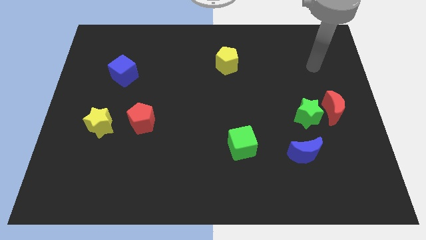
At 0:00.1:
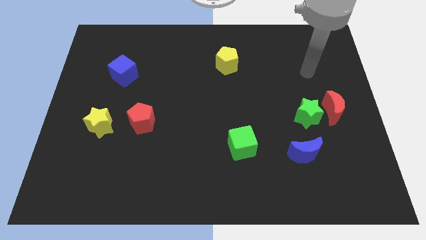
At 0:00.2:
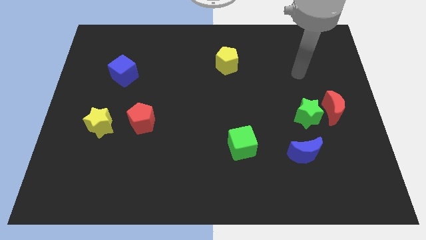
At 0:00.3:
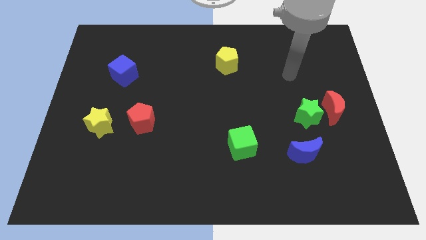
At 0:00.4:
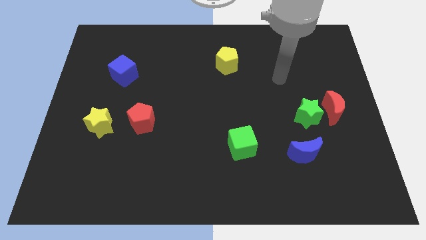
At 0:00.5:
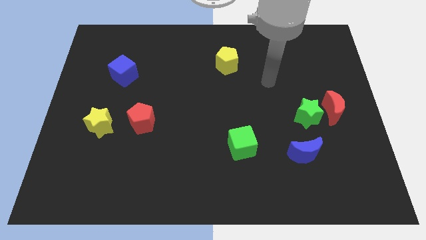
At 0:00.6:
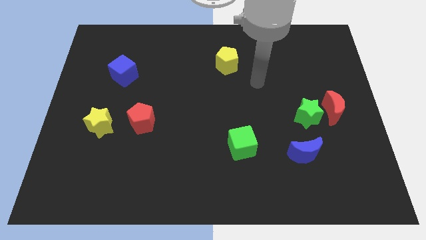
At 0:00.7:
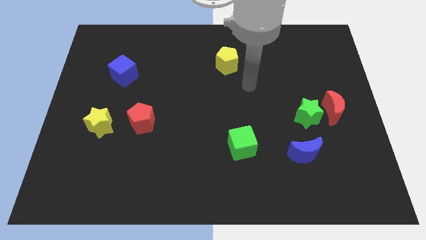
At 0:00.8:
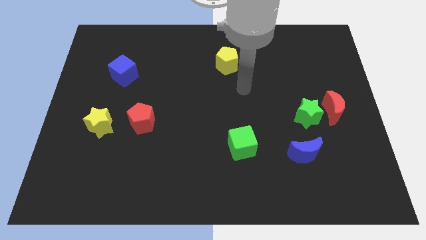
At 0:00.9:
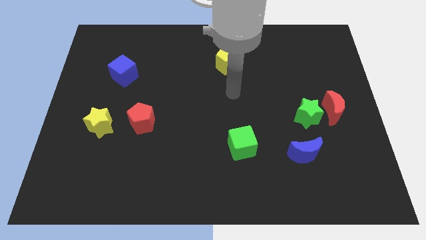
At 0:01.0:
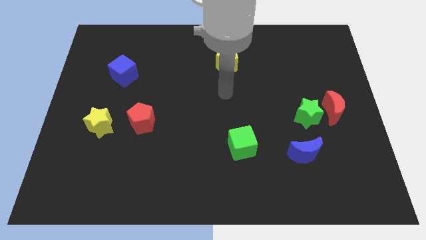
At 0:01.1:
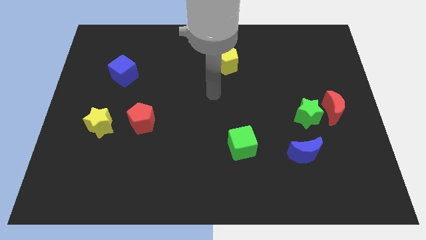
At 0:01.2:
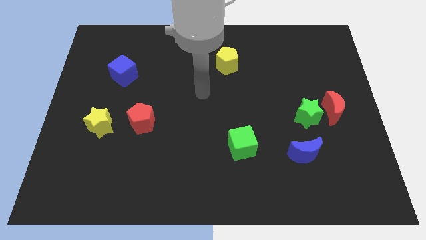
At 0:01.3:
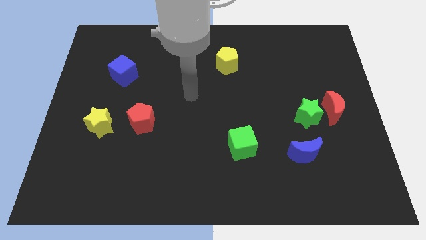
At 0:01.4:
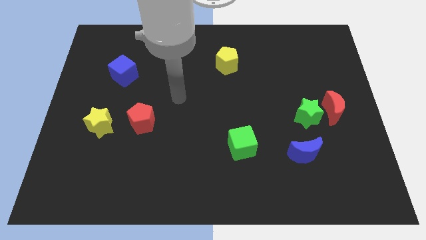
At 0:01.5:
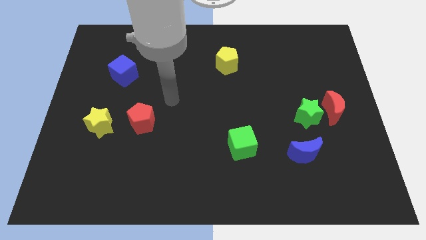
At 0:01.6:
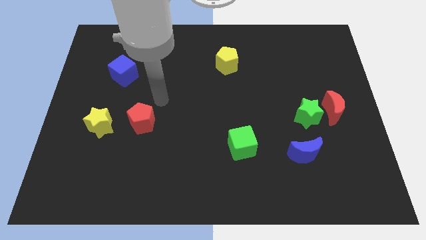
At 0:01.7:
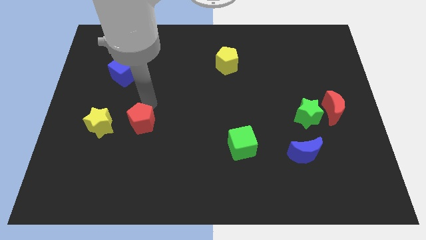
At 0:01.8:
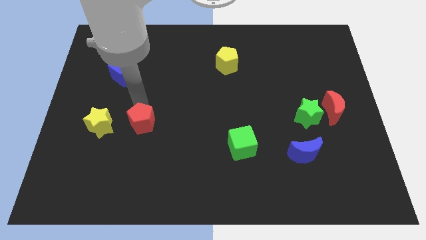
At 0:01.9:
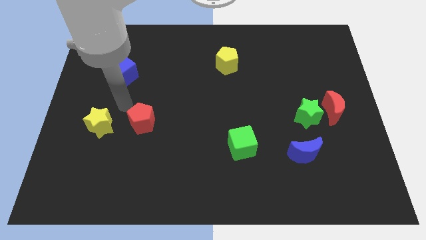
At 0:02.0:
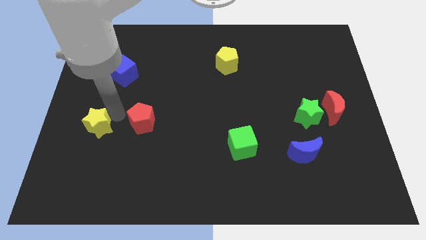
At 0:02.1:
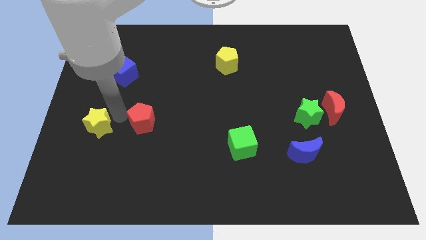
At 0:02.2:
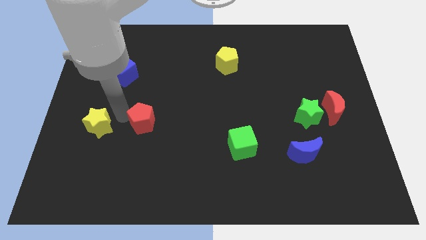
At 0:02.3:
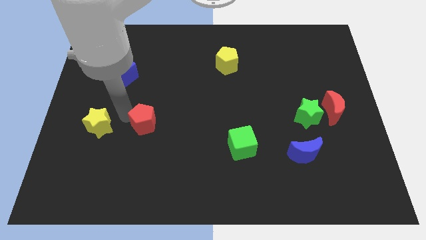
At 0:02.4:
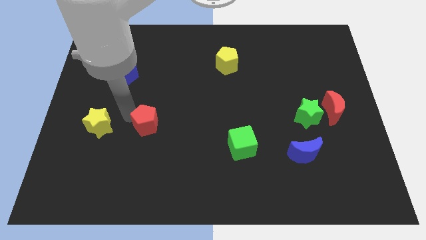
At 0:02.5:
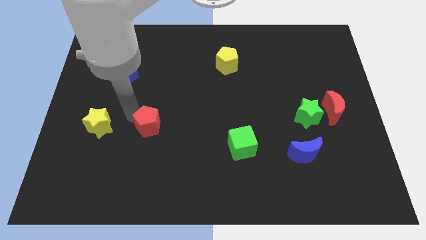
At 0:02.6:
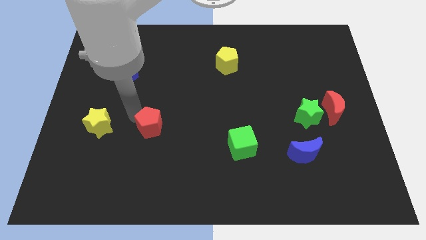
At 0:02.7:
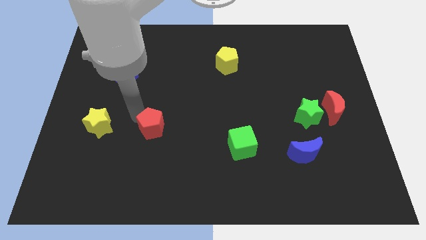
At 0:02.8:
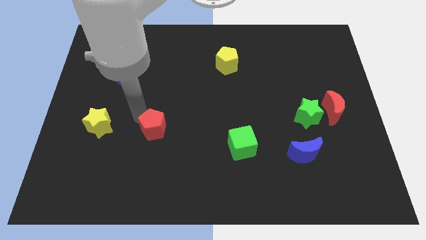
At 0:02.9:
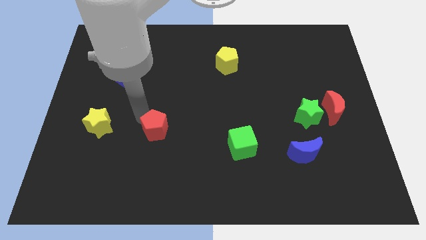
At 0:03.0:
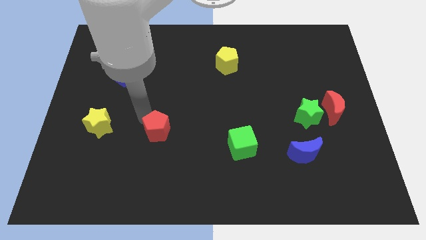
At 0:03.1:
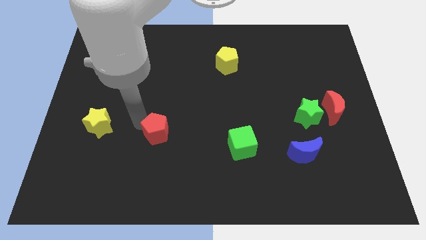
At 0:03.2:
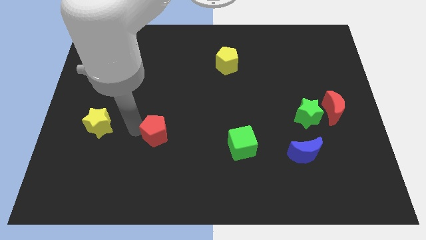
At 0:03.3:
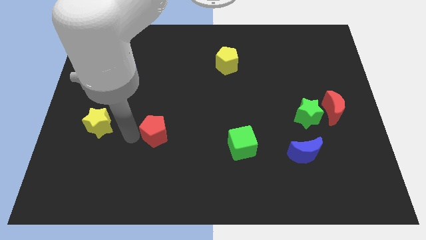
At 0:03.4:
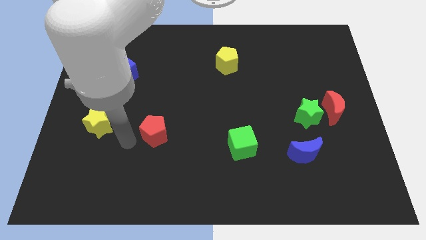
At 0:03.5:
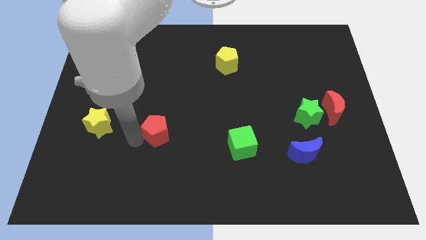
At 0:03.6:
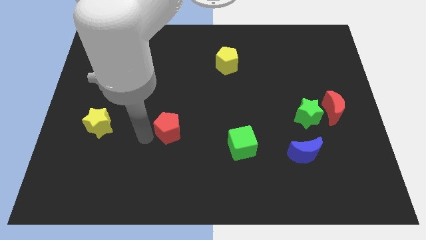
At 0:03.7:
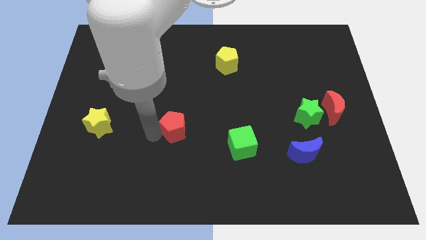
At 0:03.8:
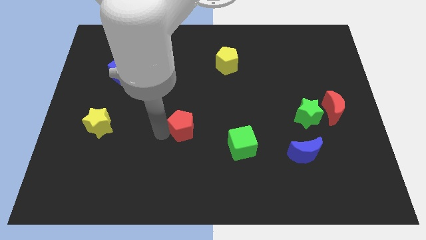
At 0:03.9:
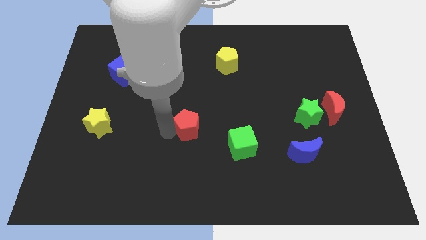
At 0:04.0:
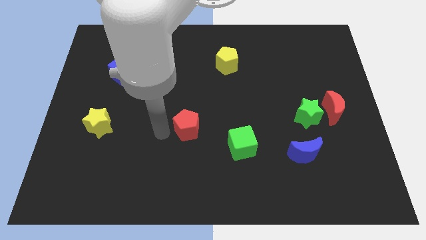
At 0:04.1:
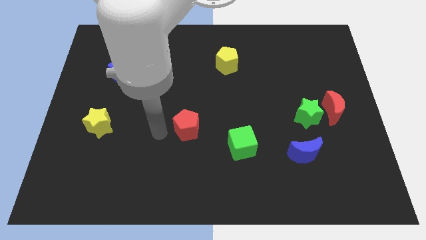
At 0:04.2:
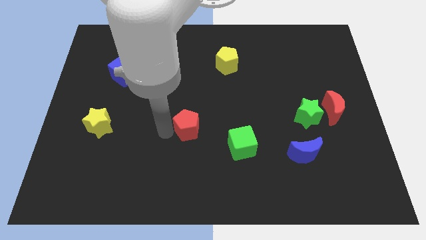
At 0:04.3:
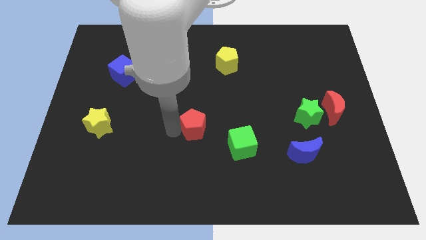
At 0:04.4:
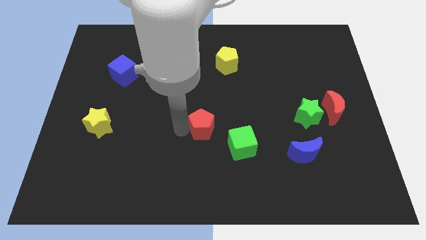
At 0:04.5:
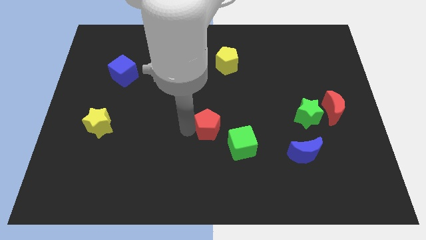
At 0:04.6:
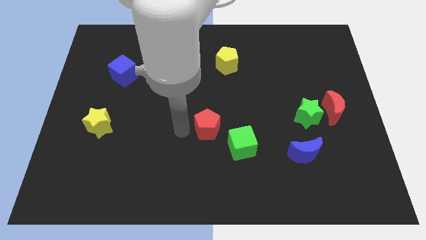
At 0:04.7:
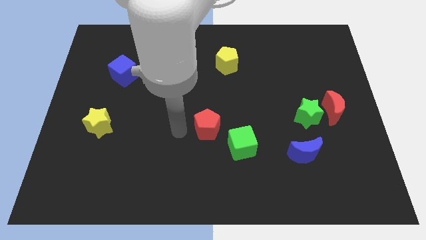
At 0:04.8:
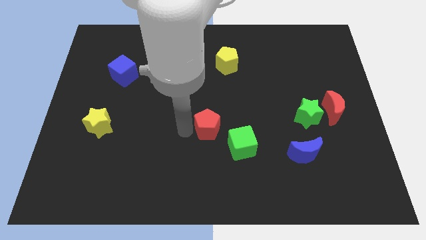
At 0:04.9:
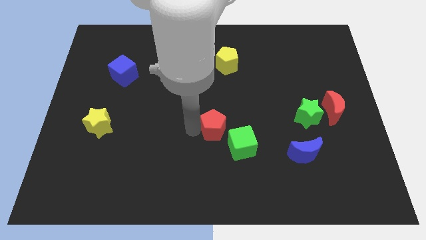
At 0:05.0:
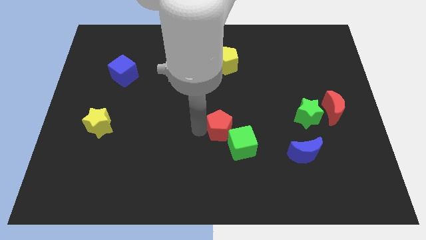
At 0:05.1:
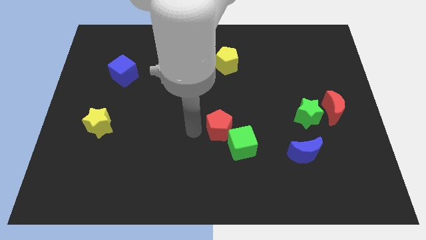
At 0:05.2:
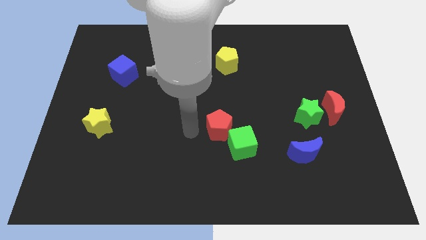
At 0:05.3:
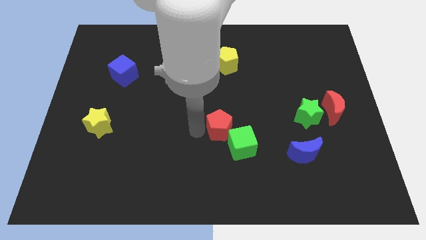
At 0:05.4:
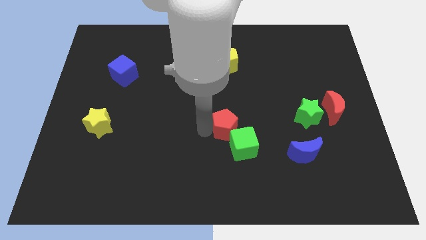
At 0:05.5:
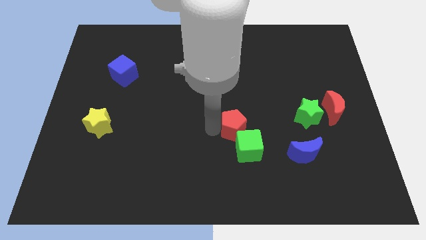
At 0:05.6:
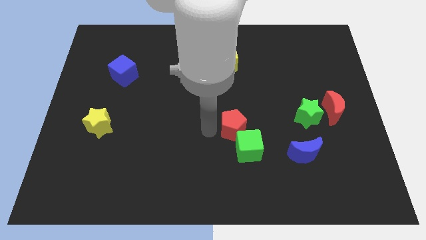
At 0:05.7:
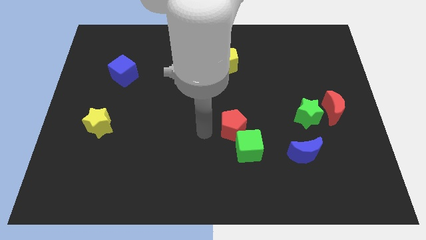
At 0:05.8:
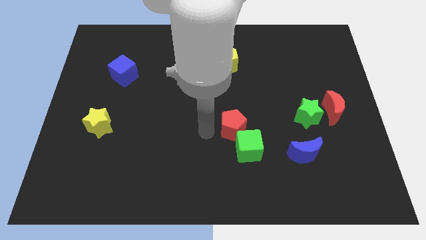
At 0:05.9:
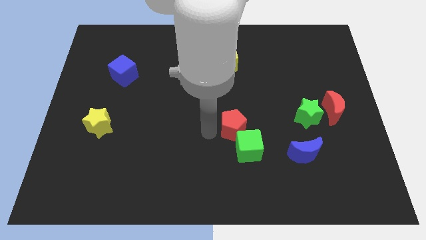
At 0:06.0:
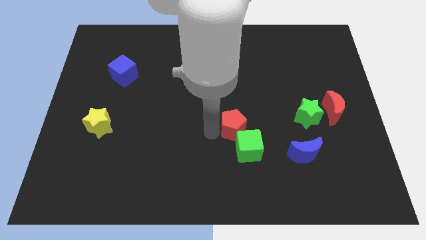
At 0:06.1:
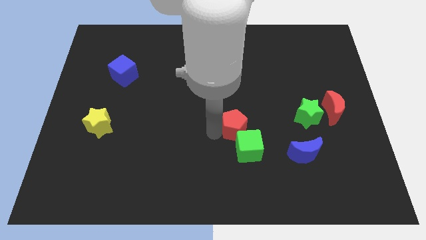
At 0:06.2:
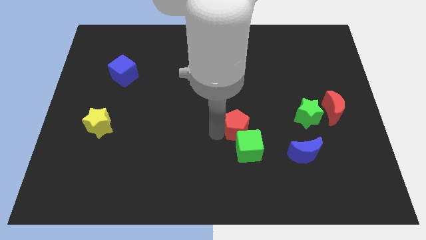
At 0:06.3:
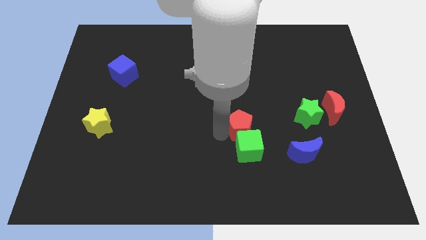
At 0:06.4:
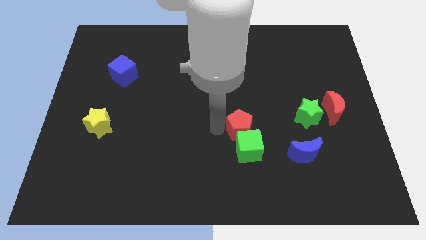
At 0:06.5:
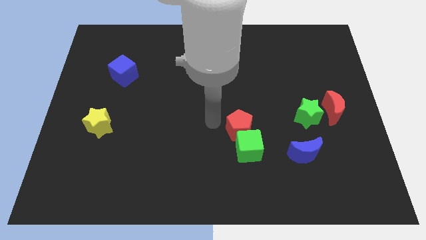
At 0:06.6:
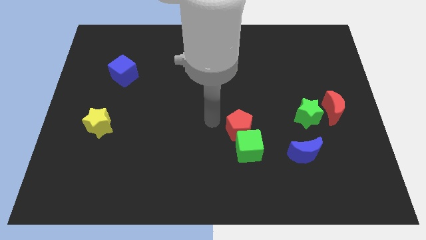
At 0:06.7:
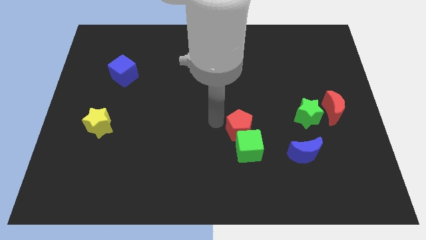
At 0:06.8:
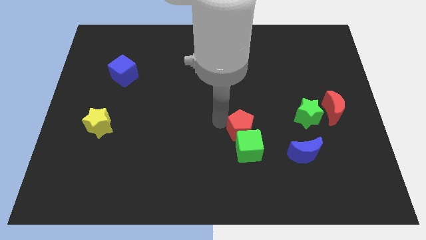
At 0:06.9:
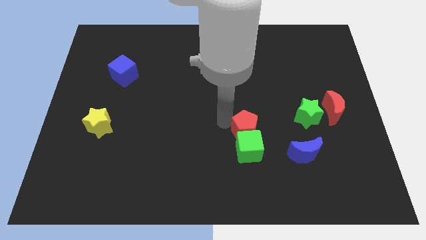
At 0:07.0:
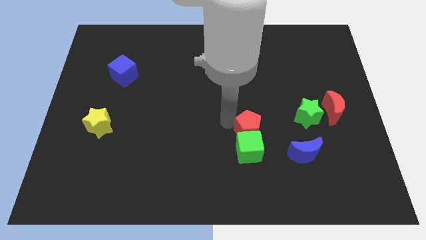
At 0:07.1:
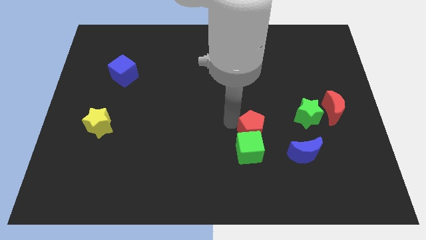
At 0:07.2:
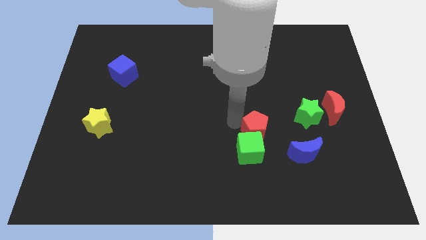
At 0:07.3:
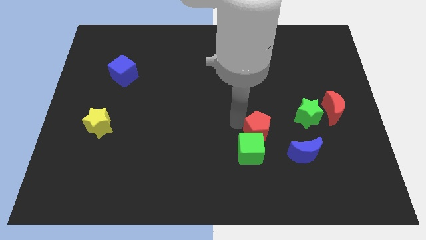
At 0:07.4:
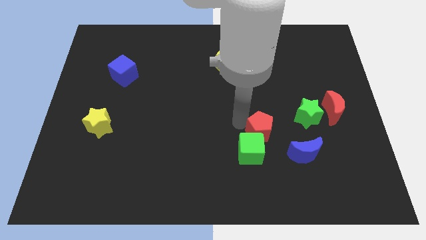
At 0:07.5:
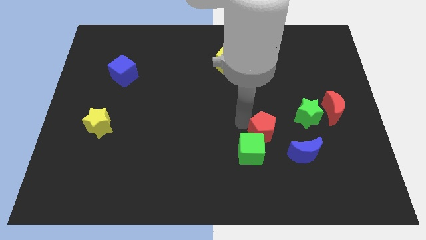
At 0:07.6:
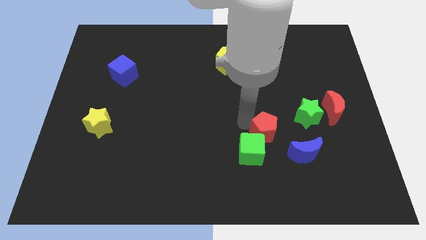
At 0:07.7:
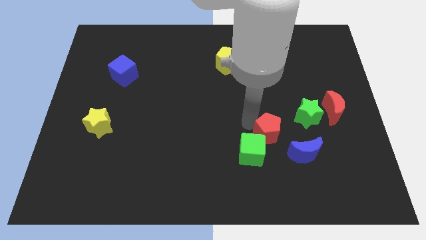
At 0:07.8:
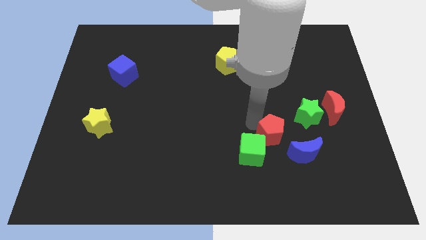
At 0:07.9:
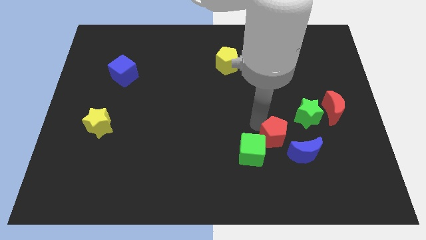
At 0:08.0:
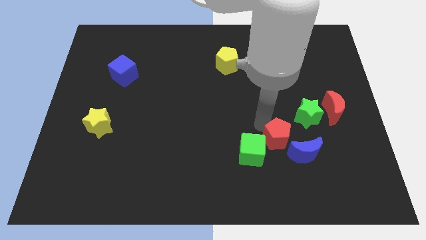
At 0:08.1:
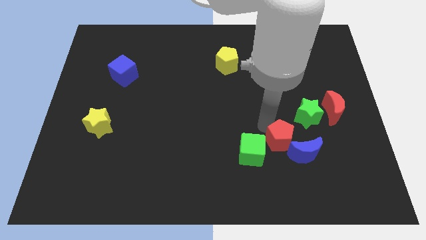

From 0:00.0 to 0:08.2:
slide the red pentagon close to the blue moon
